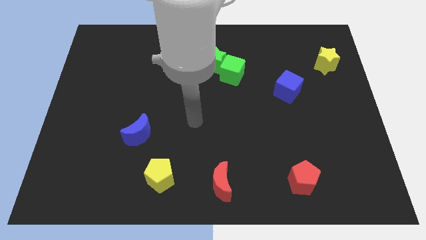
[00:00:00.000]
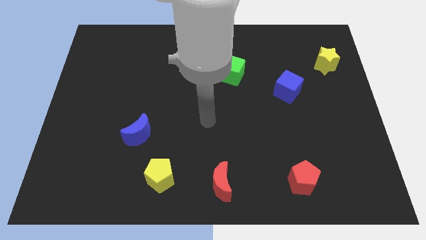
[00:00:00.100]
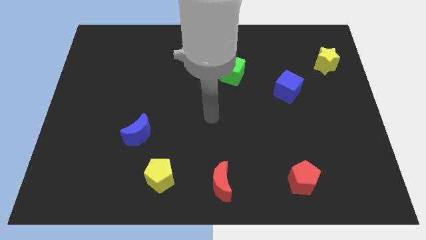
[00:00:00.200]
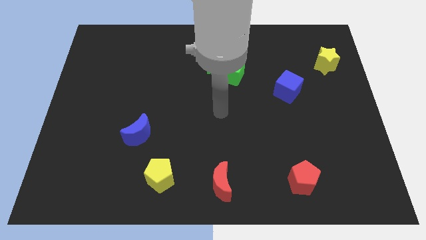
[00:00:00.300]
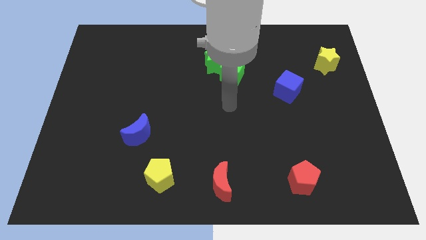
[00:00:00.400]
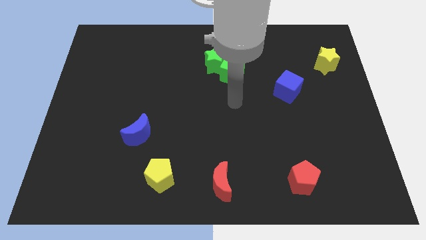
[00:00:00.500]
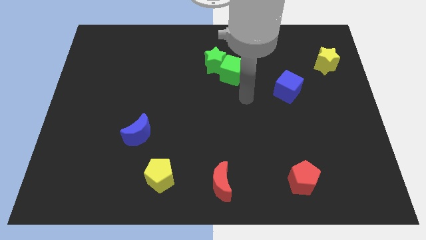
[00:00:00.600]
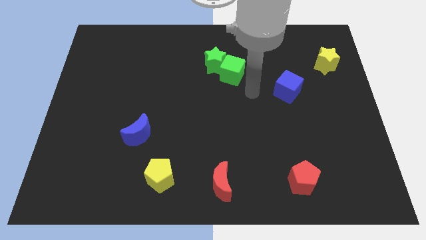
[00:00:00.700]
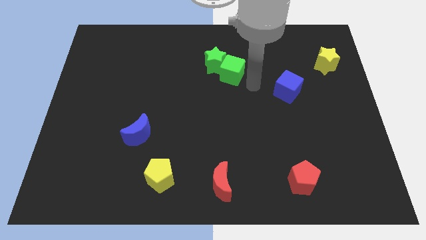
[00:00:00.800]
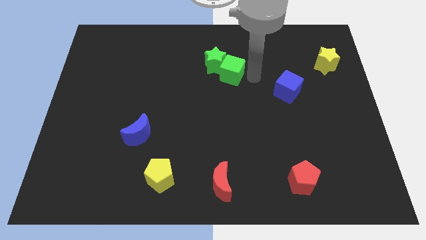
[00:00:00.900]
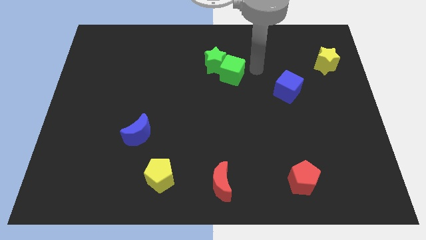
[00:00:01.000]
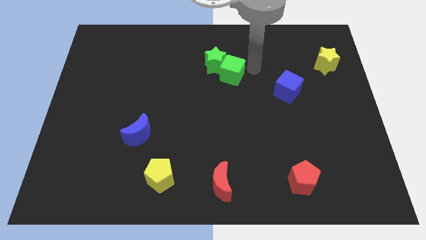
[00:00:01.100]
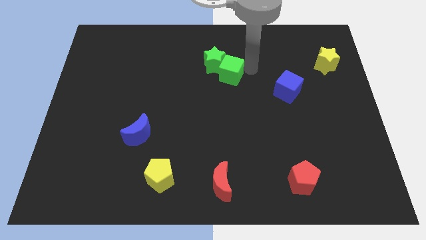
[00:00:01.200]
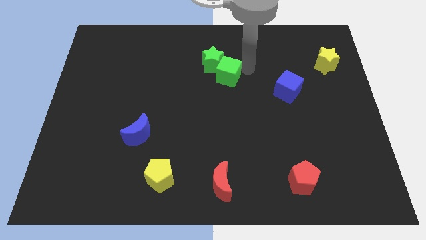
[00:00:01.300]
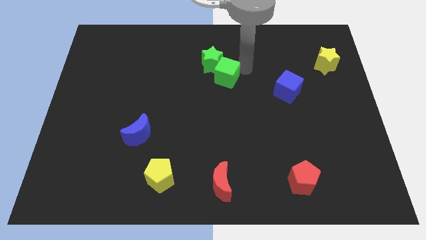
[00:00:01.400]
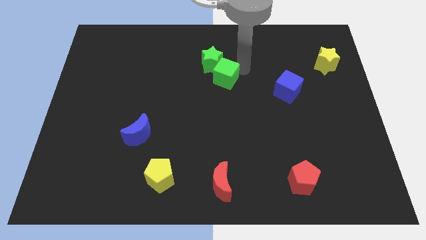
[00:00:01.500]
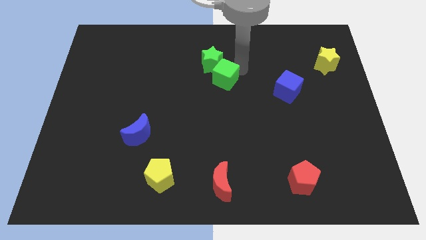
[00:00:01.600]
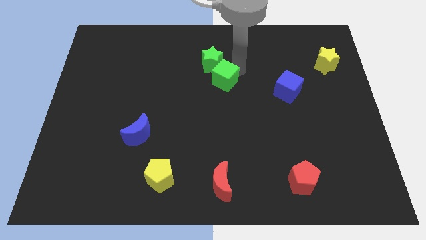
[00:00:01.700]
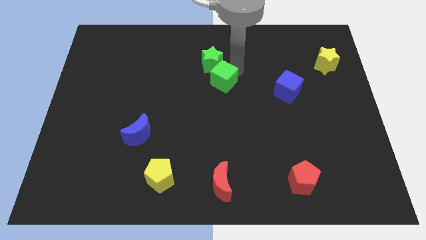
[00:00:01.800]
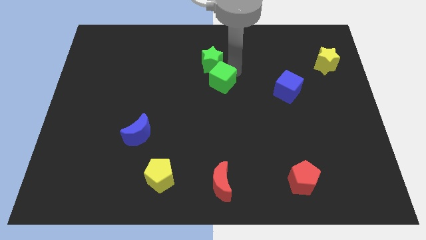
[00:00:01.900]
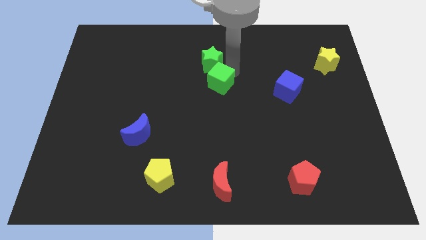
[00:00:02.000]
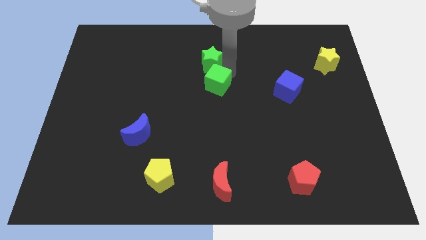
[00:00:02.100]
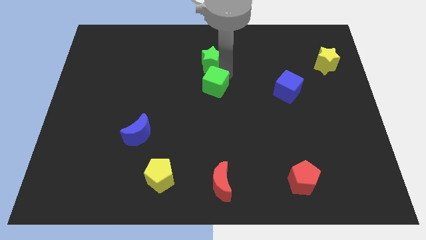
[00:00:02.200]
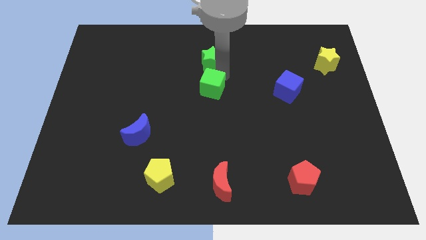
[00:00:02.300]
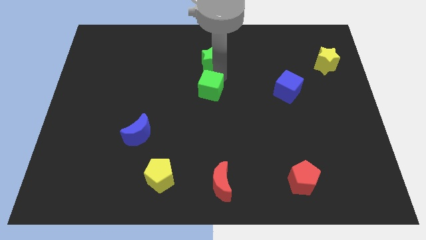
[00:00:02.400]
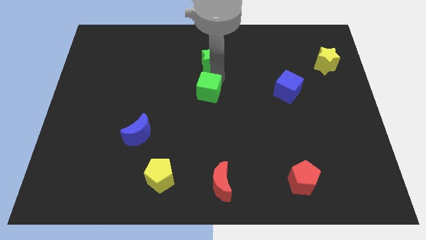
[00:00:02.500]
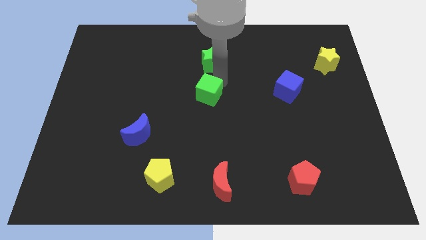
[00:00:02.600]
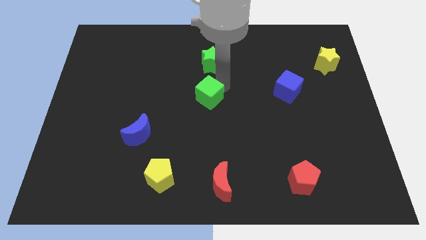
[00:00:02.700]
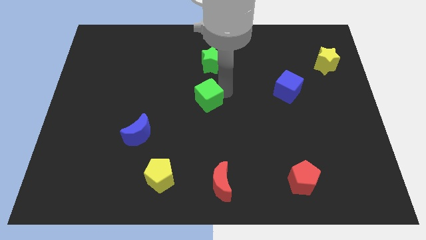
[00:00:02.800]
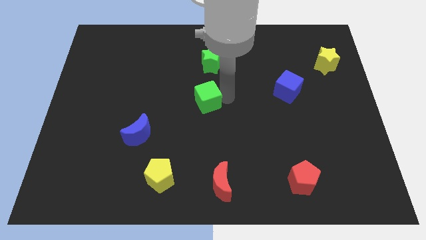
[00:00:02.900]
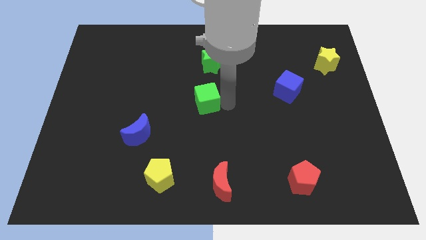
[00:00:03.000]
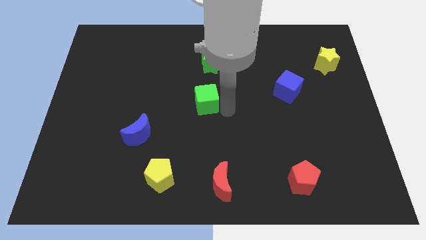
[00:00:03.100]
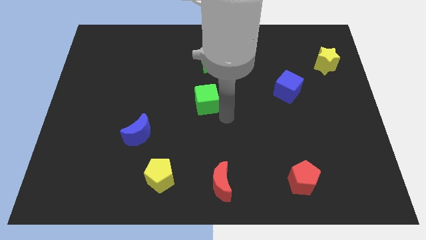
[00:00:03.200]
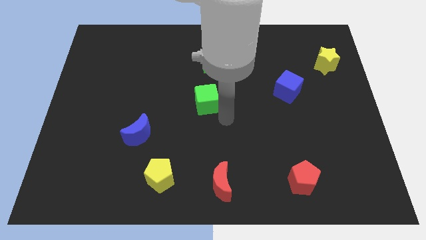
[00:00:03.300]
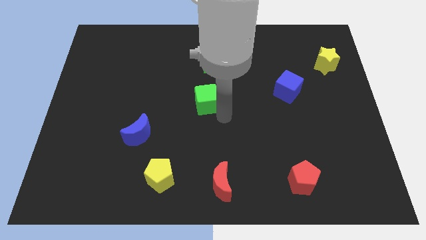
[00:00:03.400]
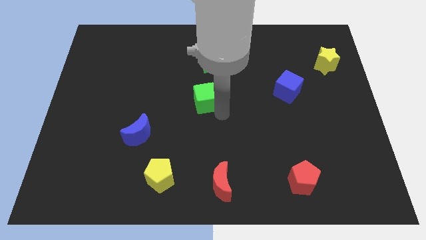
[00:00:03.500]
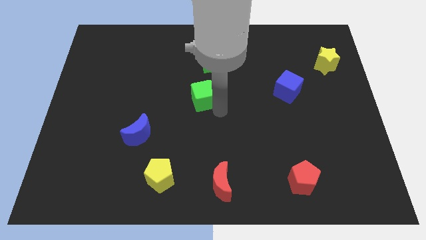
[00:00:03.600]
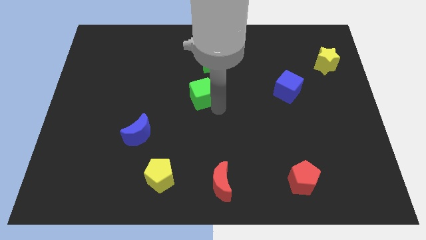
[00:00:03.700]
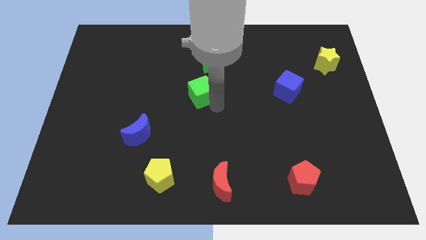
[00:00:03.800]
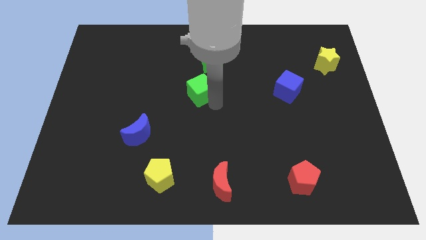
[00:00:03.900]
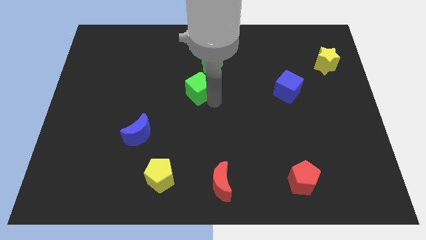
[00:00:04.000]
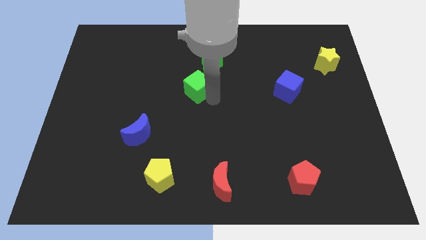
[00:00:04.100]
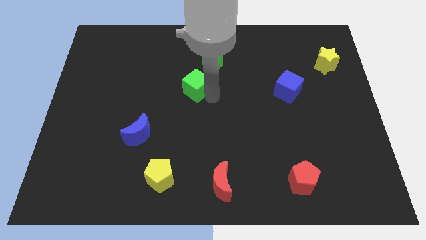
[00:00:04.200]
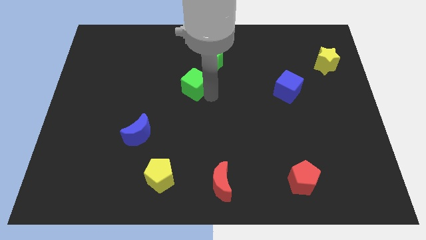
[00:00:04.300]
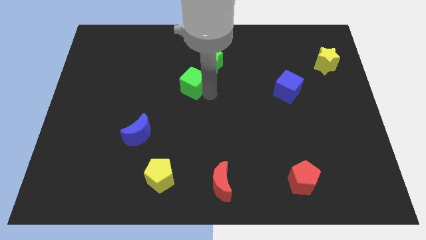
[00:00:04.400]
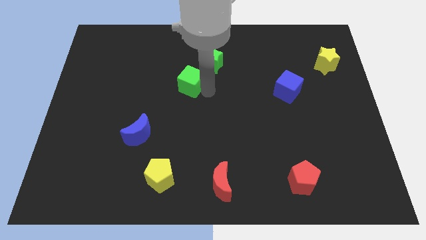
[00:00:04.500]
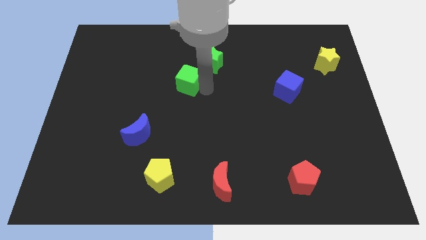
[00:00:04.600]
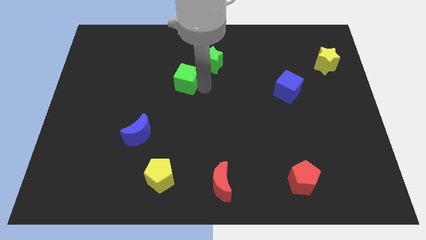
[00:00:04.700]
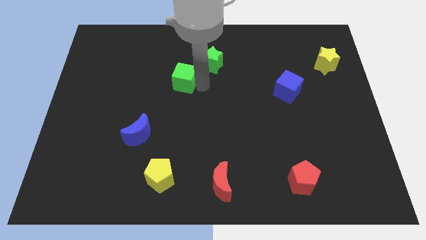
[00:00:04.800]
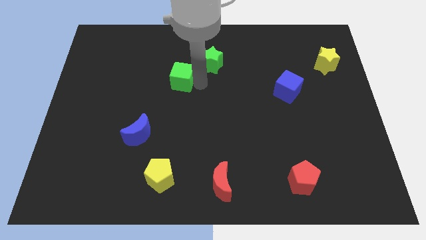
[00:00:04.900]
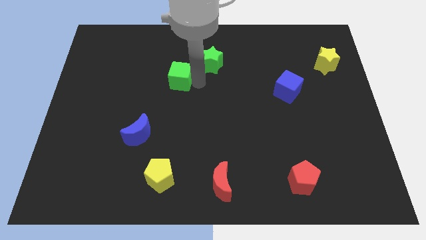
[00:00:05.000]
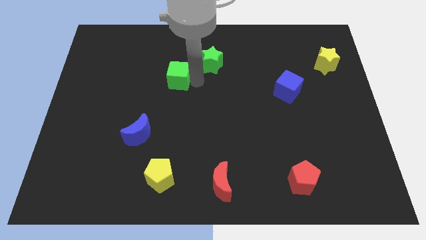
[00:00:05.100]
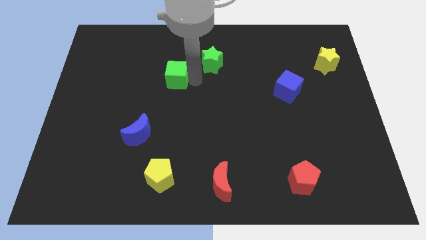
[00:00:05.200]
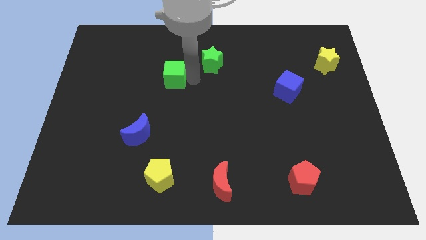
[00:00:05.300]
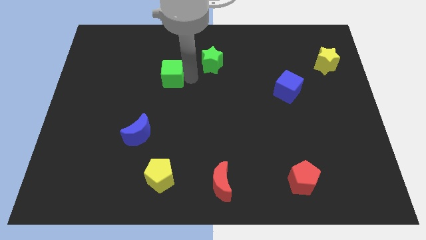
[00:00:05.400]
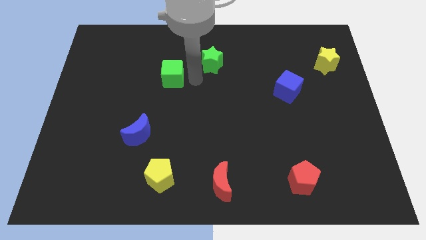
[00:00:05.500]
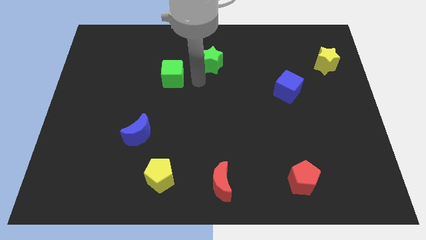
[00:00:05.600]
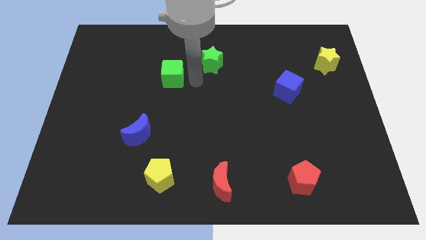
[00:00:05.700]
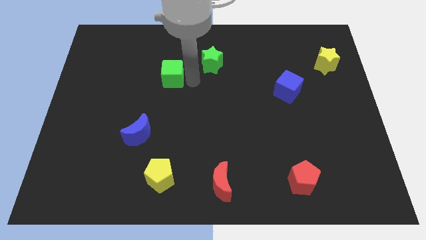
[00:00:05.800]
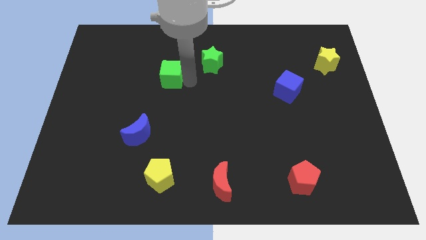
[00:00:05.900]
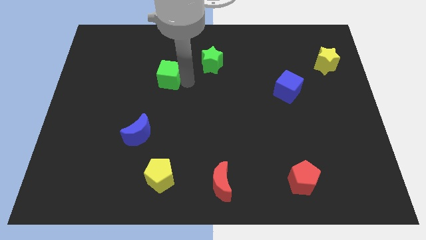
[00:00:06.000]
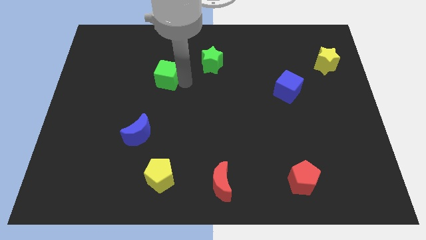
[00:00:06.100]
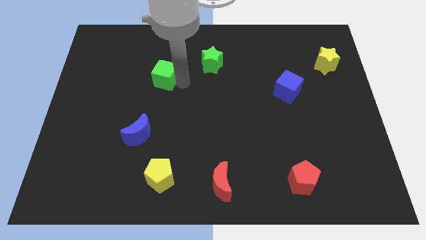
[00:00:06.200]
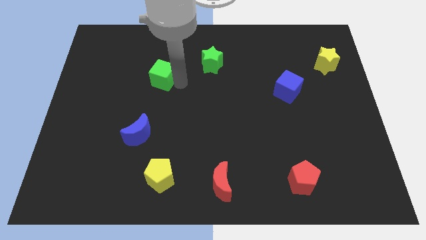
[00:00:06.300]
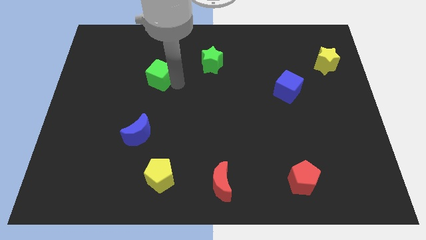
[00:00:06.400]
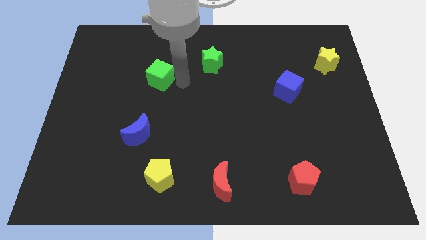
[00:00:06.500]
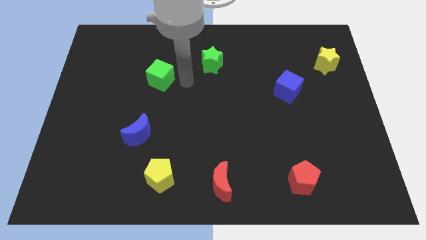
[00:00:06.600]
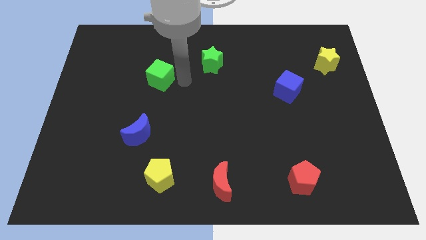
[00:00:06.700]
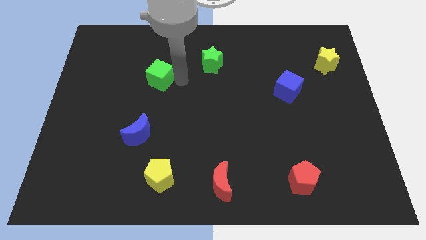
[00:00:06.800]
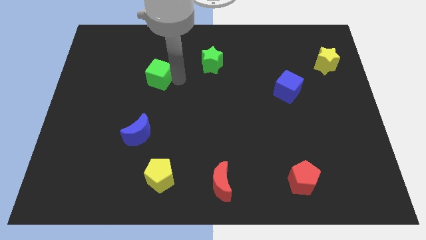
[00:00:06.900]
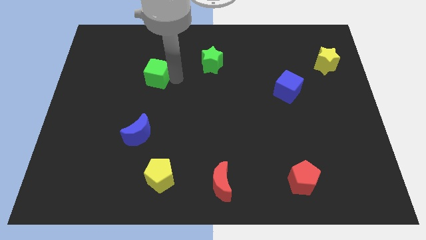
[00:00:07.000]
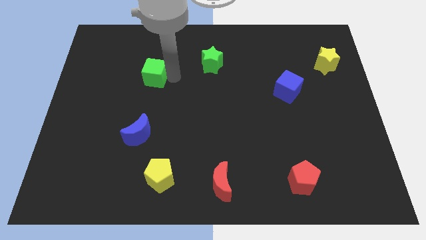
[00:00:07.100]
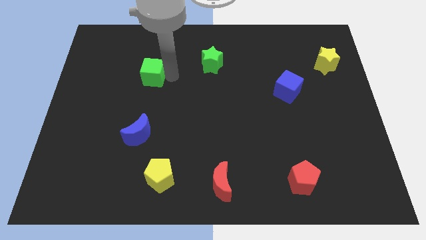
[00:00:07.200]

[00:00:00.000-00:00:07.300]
push the green cube to the left

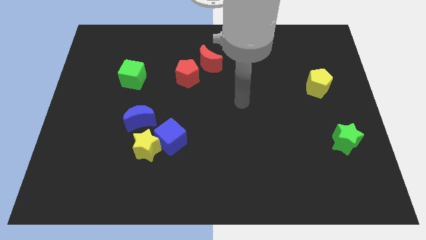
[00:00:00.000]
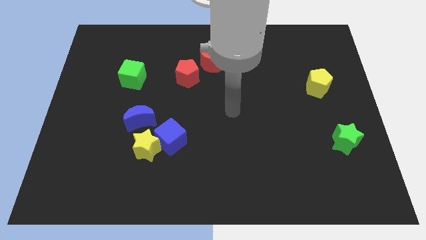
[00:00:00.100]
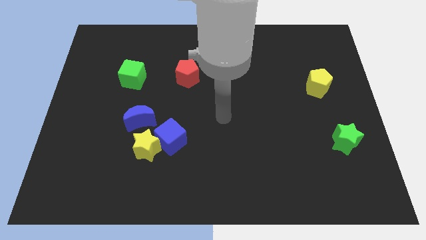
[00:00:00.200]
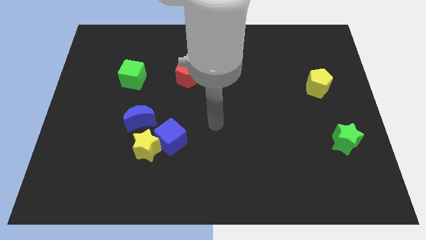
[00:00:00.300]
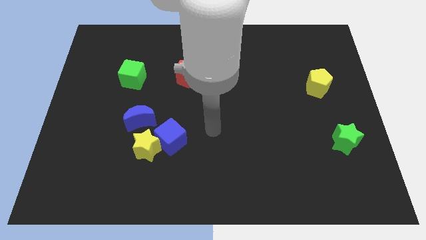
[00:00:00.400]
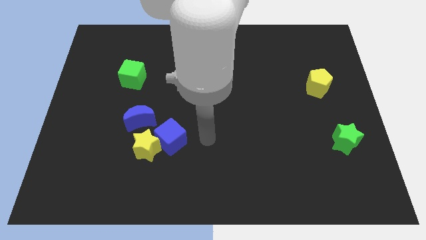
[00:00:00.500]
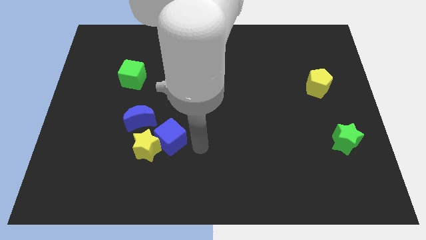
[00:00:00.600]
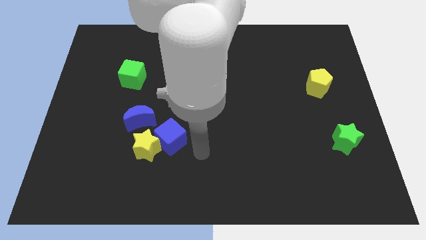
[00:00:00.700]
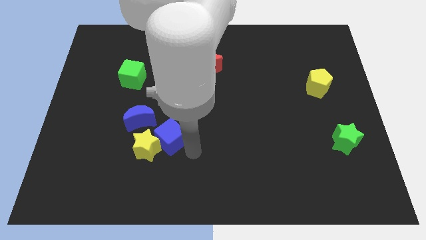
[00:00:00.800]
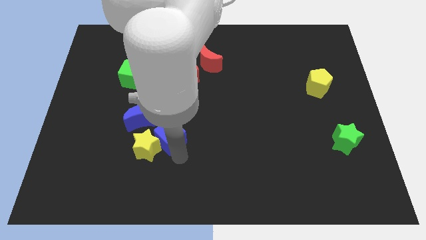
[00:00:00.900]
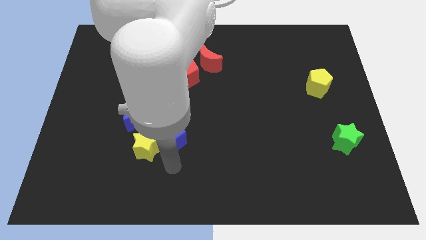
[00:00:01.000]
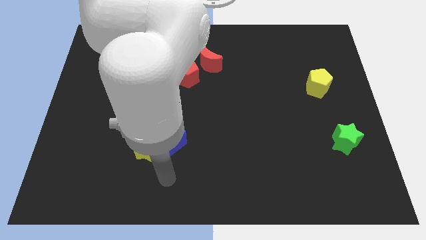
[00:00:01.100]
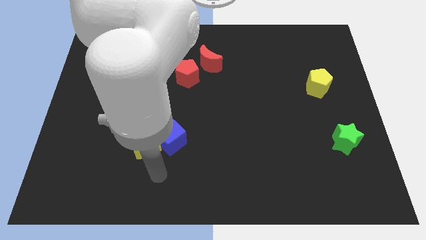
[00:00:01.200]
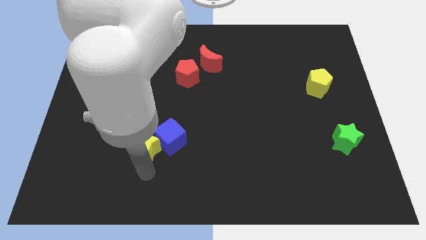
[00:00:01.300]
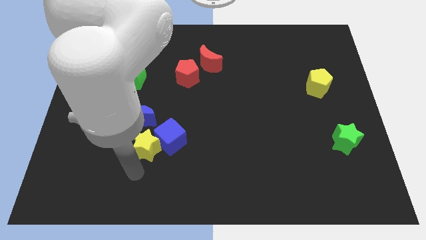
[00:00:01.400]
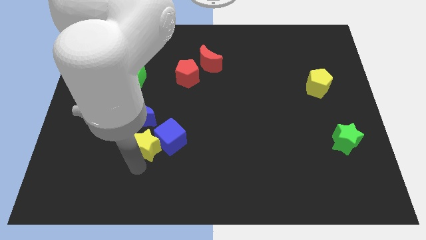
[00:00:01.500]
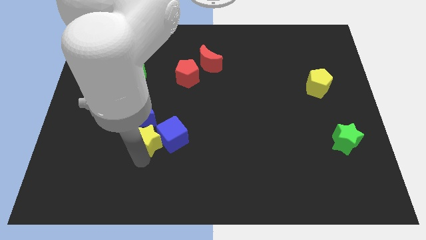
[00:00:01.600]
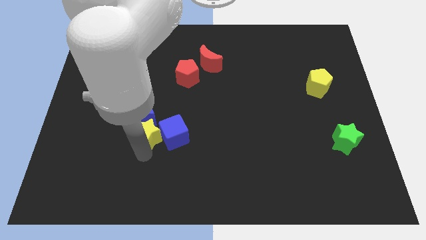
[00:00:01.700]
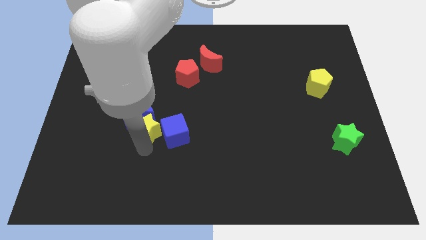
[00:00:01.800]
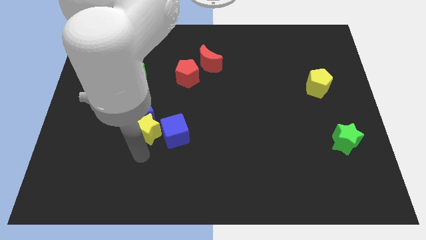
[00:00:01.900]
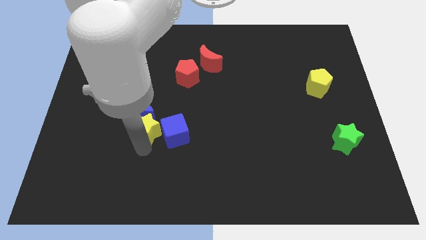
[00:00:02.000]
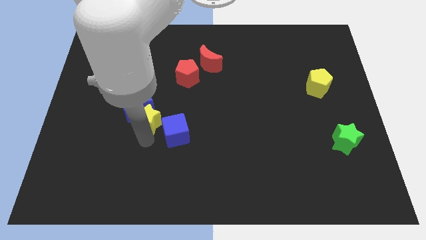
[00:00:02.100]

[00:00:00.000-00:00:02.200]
push the yellow star up somewhat
